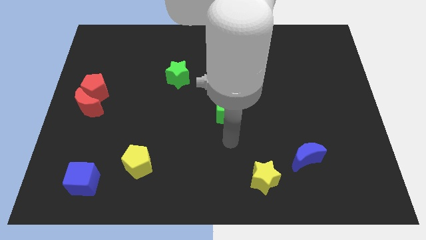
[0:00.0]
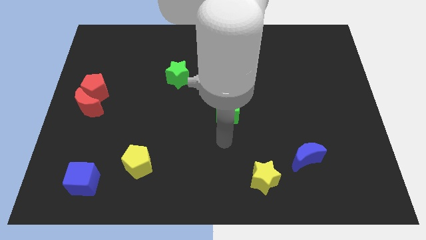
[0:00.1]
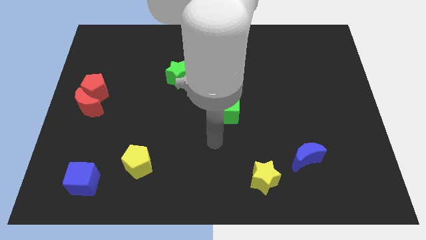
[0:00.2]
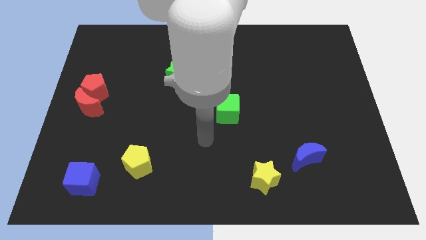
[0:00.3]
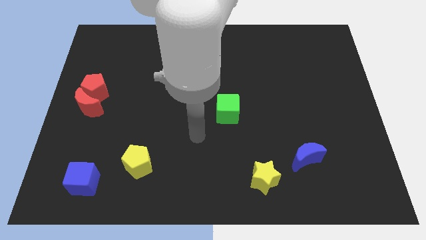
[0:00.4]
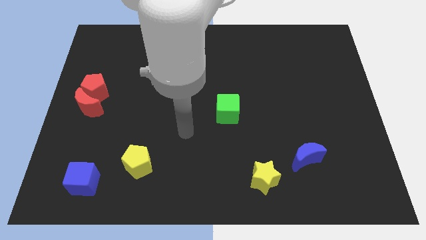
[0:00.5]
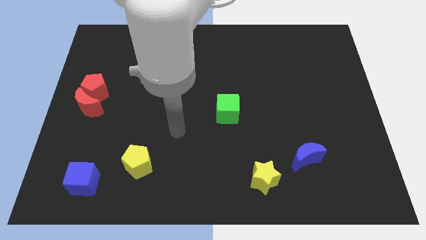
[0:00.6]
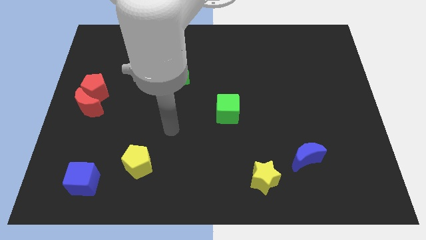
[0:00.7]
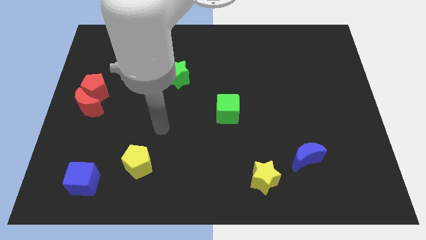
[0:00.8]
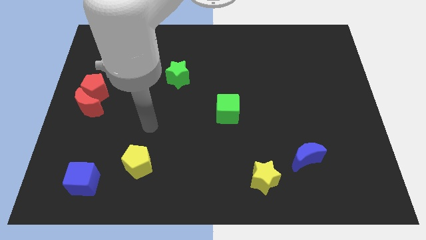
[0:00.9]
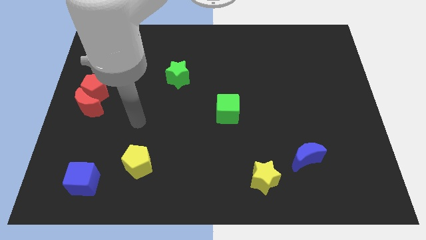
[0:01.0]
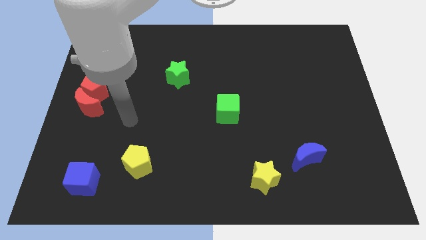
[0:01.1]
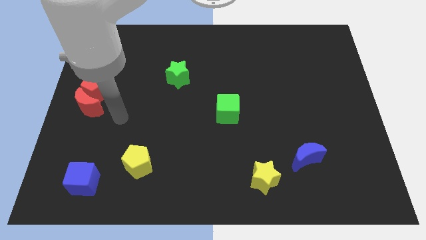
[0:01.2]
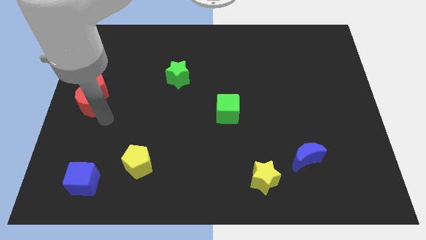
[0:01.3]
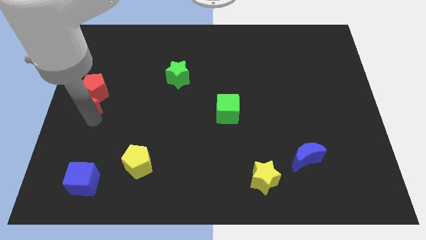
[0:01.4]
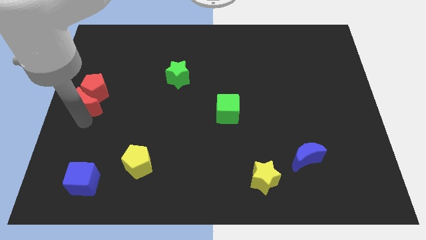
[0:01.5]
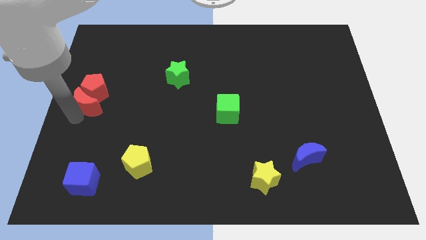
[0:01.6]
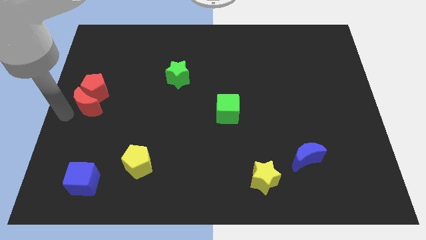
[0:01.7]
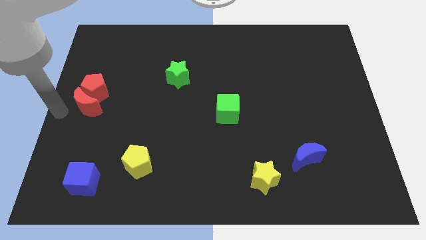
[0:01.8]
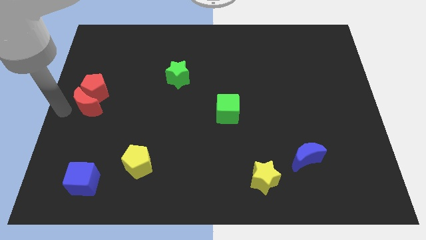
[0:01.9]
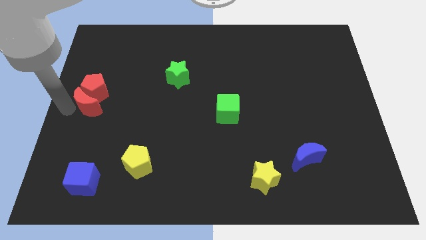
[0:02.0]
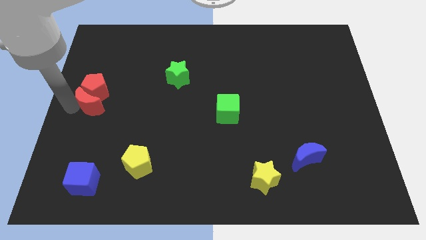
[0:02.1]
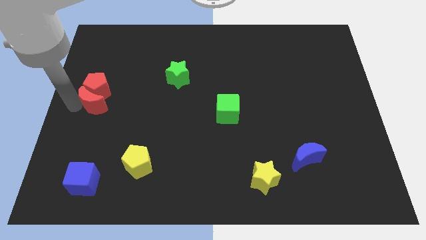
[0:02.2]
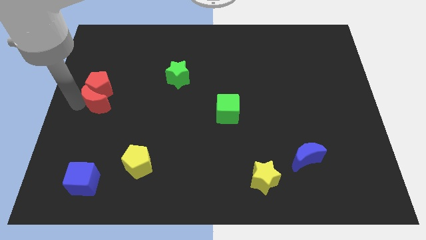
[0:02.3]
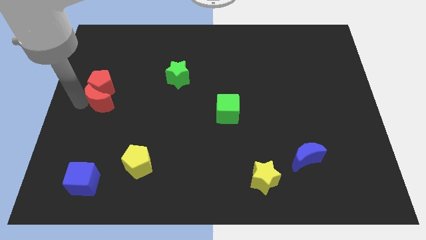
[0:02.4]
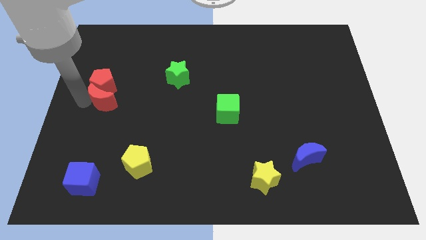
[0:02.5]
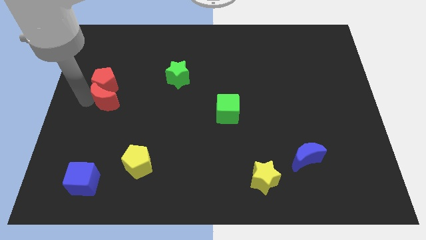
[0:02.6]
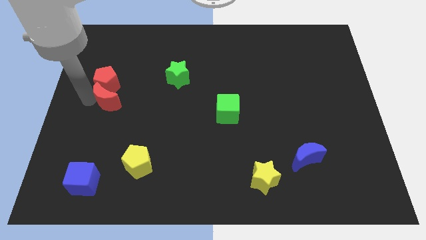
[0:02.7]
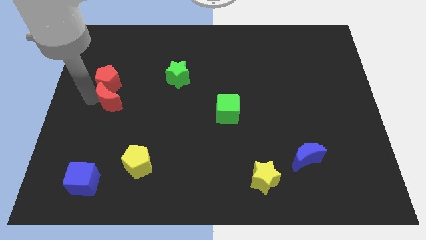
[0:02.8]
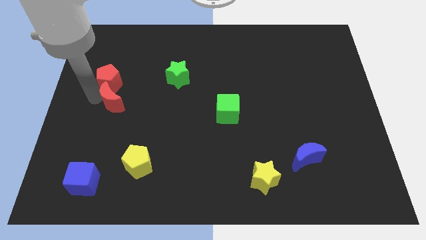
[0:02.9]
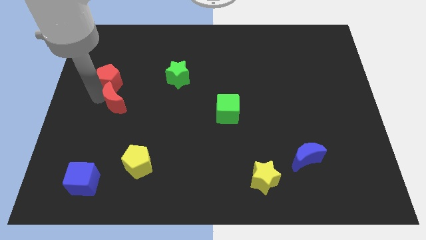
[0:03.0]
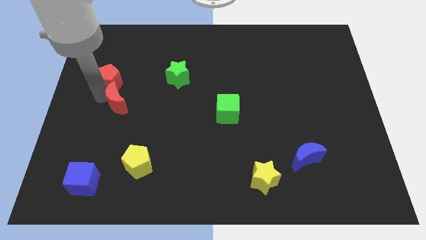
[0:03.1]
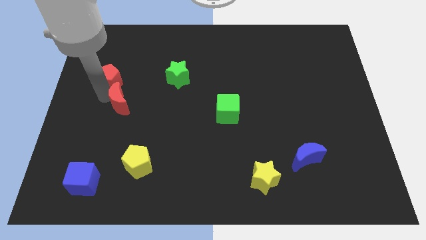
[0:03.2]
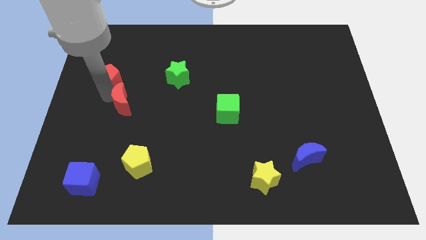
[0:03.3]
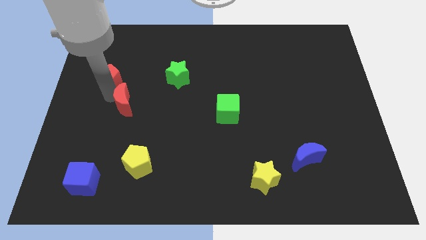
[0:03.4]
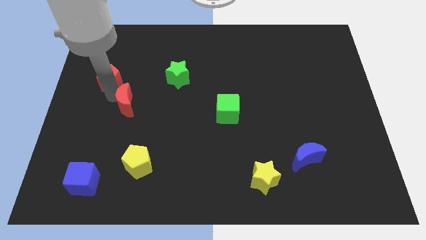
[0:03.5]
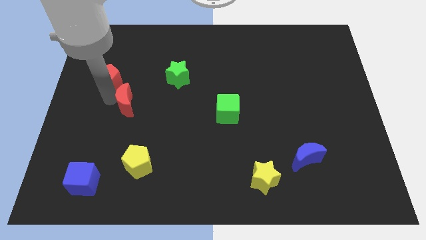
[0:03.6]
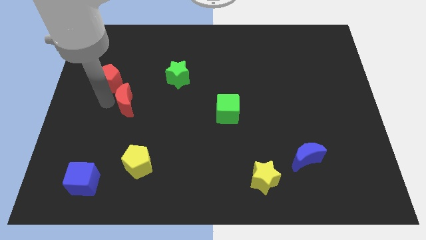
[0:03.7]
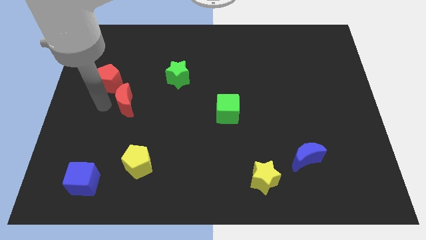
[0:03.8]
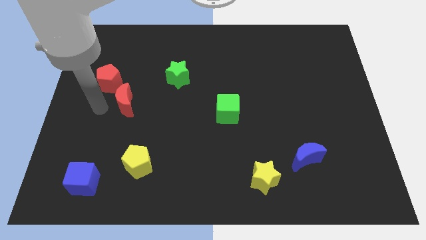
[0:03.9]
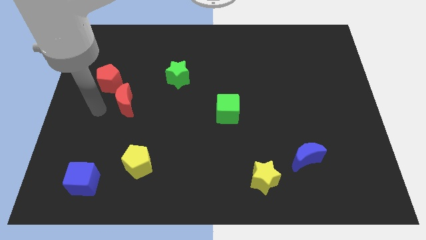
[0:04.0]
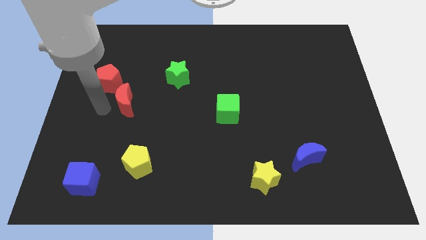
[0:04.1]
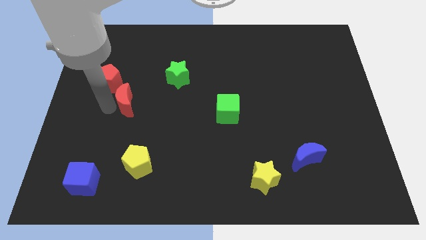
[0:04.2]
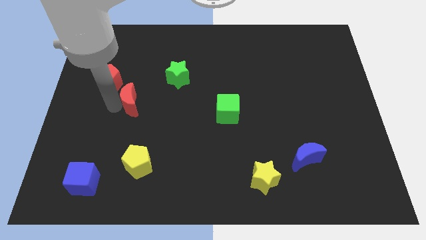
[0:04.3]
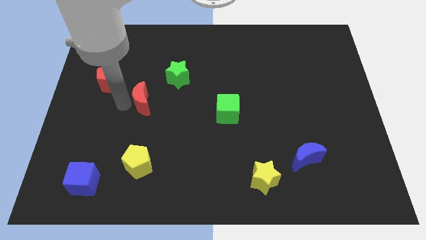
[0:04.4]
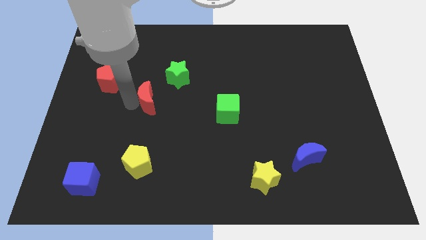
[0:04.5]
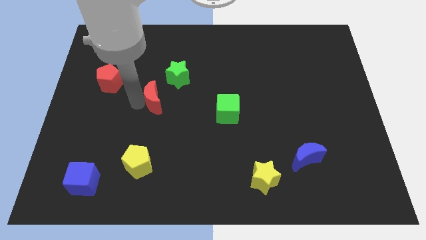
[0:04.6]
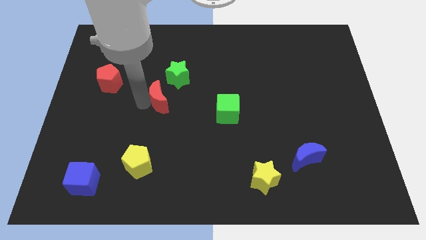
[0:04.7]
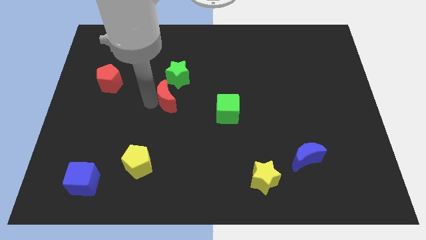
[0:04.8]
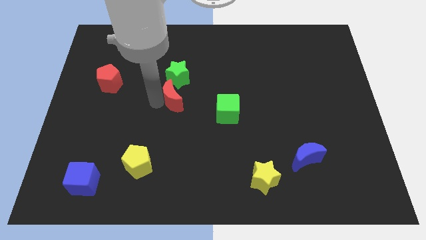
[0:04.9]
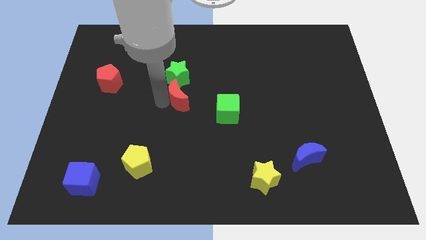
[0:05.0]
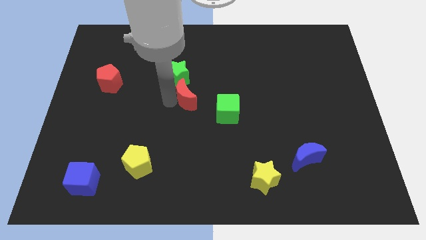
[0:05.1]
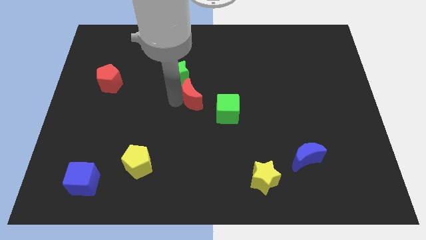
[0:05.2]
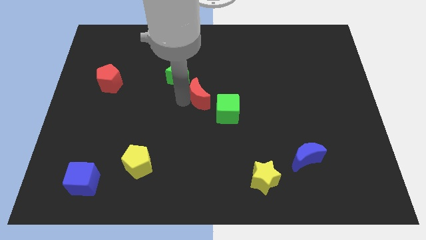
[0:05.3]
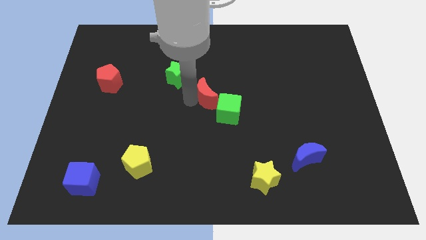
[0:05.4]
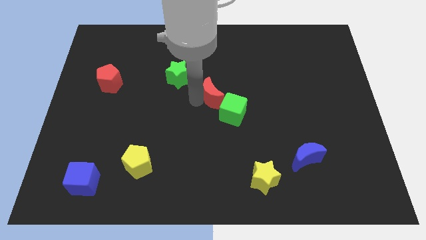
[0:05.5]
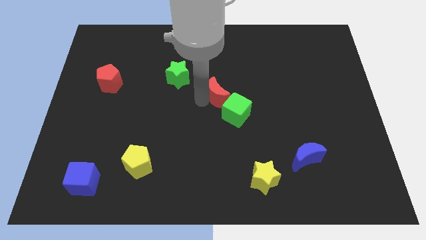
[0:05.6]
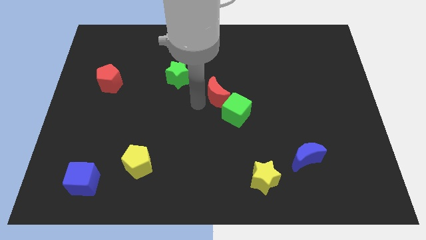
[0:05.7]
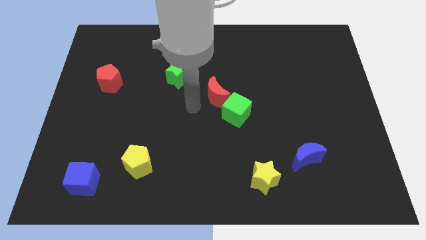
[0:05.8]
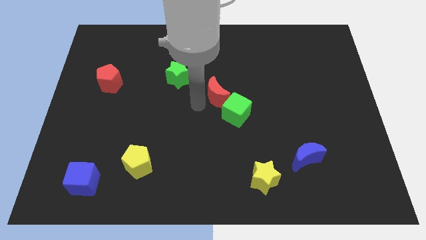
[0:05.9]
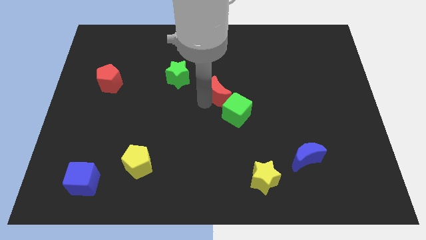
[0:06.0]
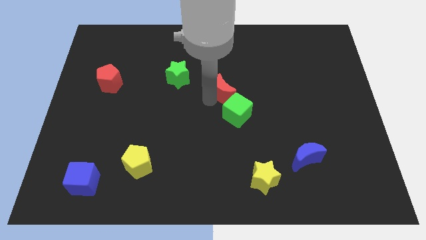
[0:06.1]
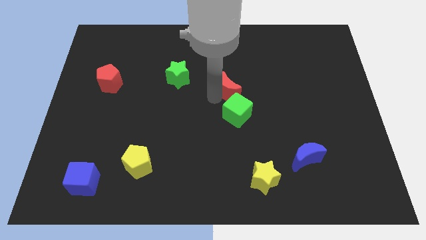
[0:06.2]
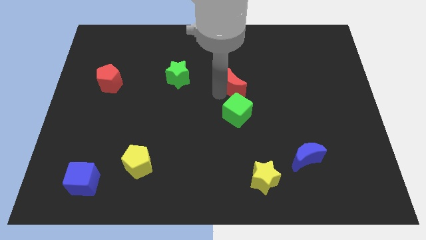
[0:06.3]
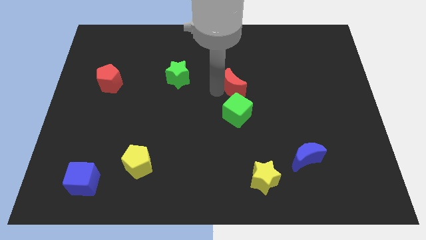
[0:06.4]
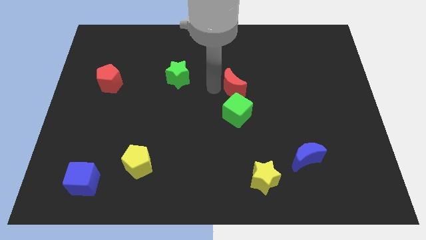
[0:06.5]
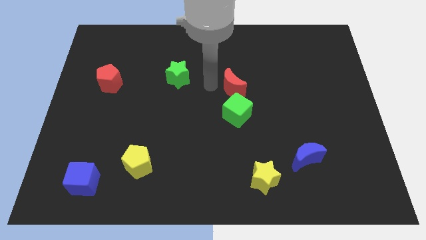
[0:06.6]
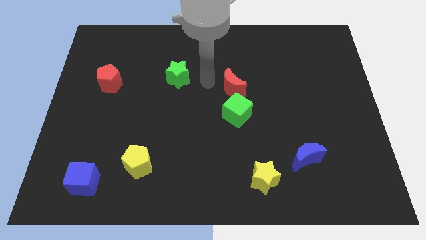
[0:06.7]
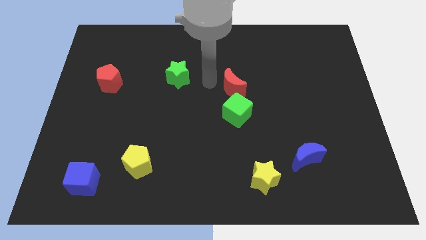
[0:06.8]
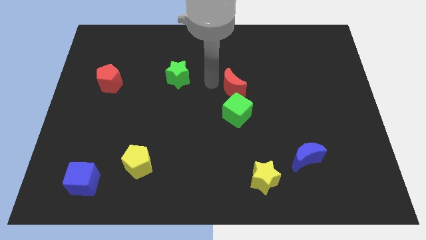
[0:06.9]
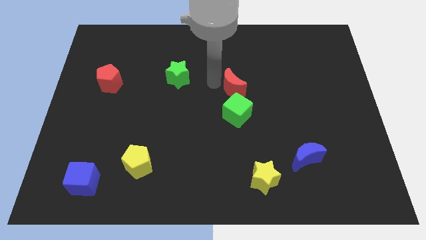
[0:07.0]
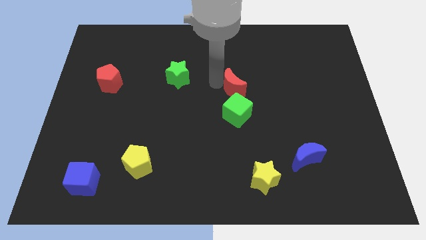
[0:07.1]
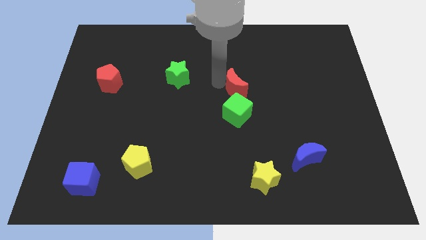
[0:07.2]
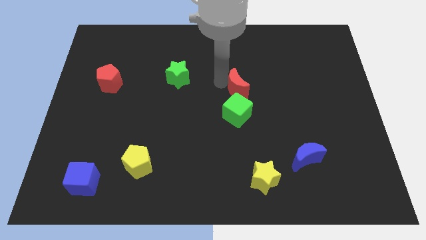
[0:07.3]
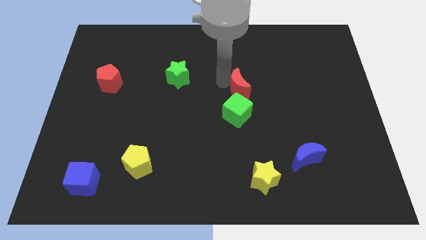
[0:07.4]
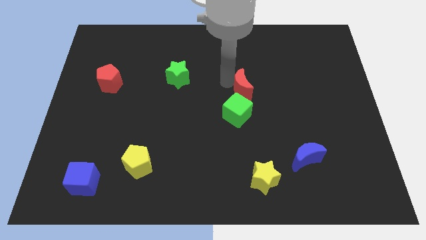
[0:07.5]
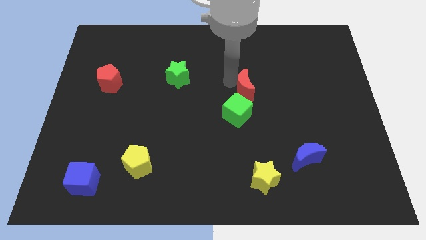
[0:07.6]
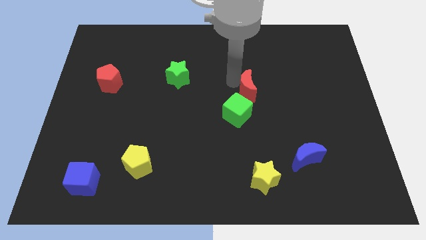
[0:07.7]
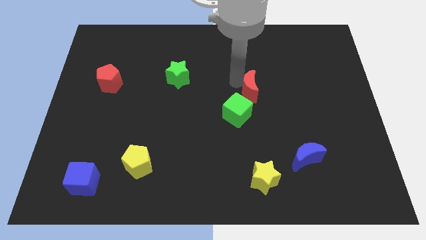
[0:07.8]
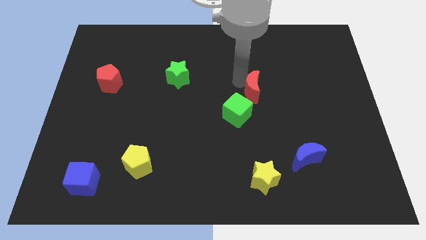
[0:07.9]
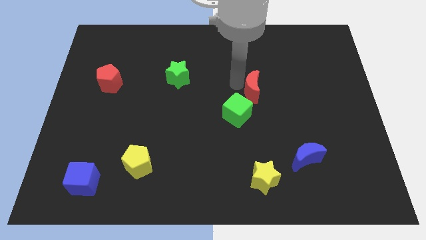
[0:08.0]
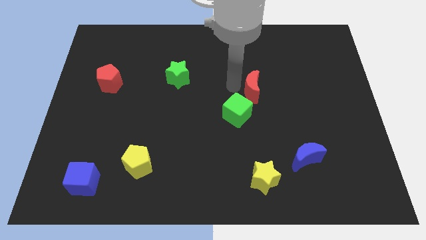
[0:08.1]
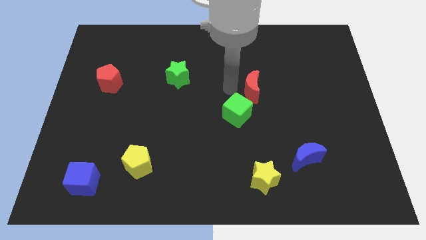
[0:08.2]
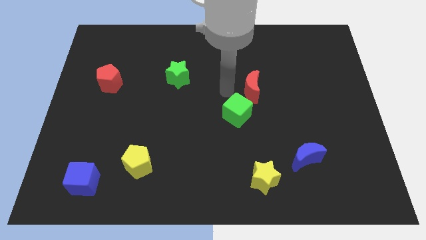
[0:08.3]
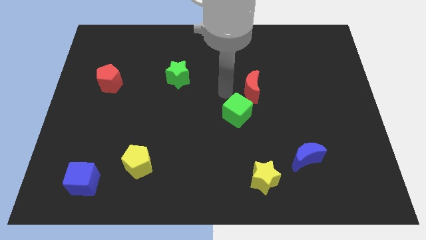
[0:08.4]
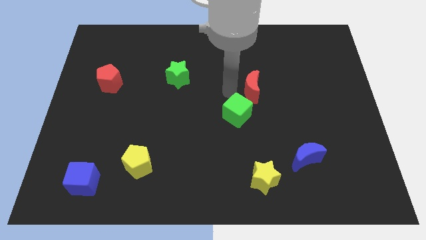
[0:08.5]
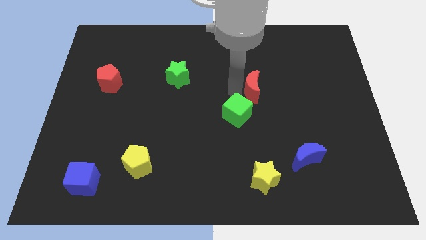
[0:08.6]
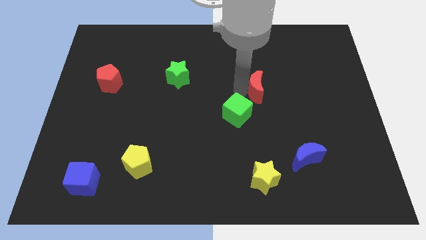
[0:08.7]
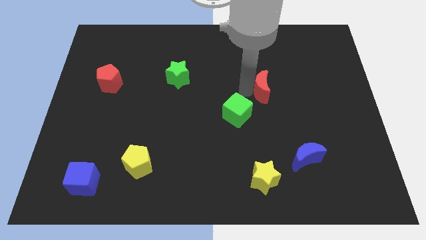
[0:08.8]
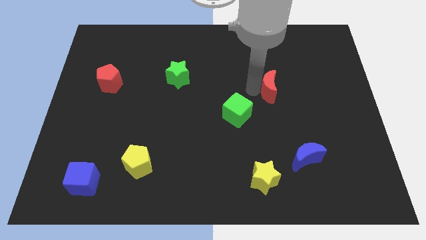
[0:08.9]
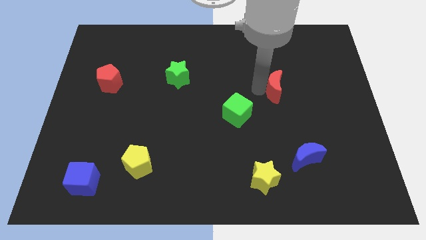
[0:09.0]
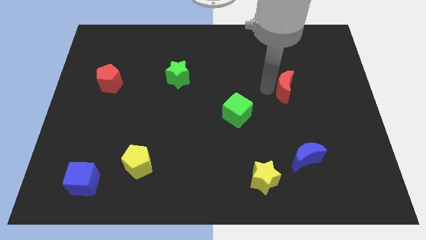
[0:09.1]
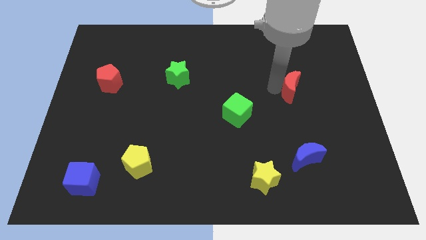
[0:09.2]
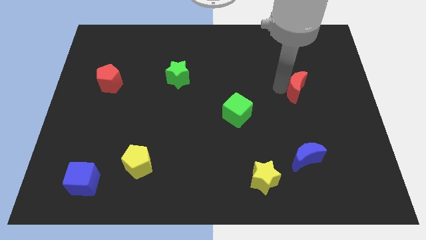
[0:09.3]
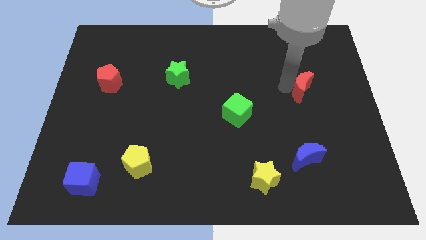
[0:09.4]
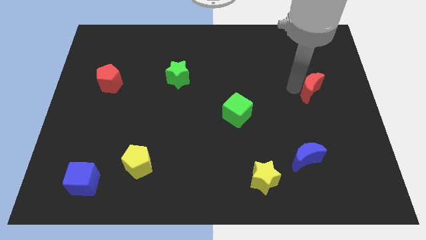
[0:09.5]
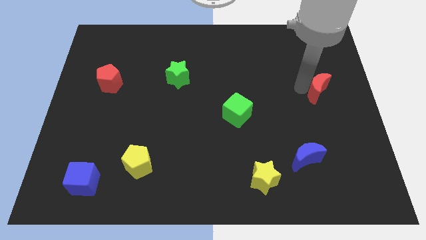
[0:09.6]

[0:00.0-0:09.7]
push the red moon to the right side of the board
